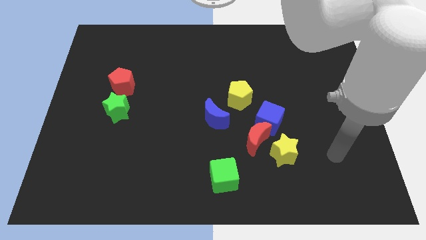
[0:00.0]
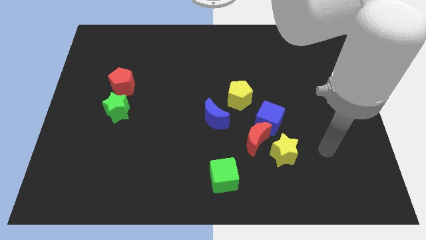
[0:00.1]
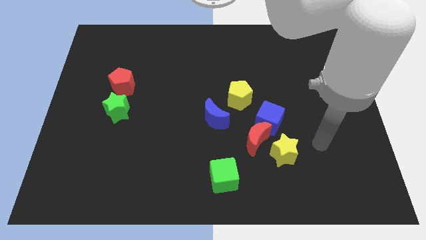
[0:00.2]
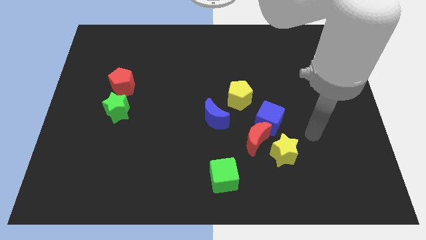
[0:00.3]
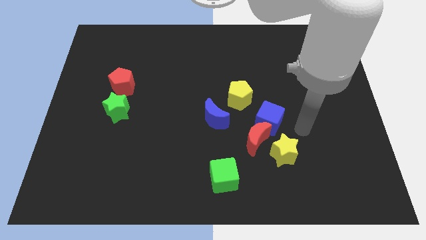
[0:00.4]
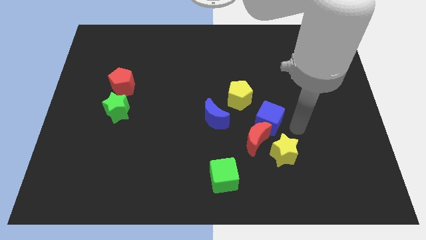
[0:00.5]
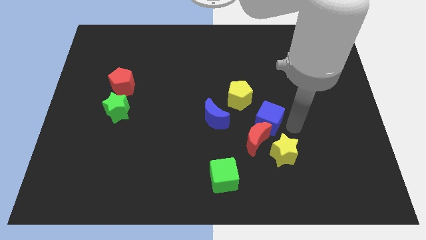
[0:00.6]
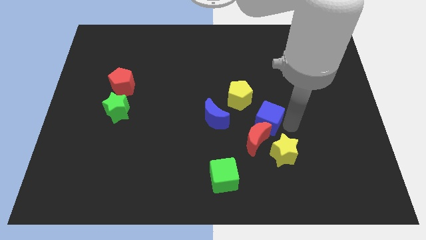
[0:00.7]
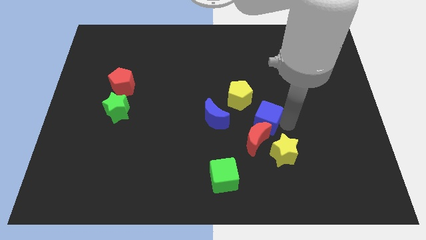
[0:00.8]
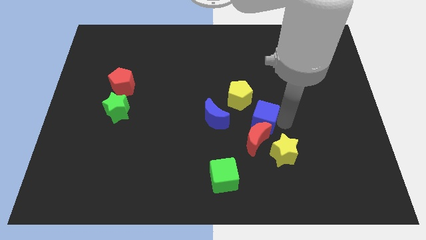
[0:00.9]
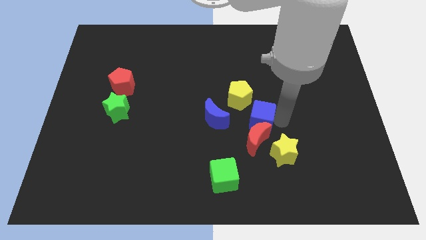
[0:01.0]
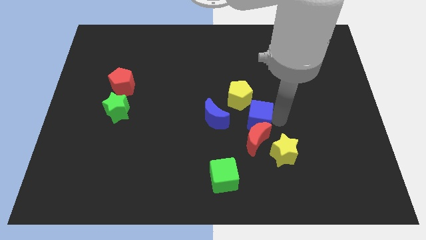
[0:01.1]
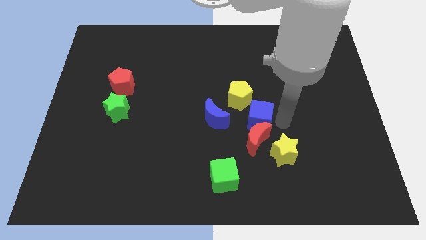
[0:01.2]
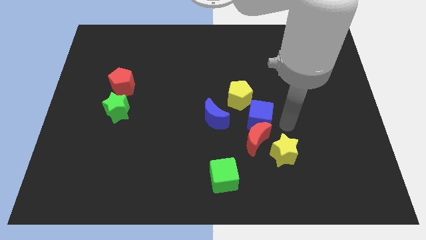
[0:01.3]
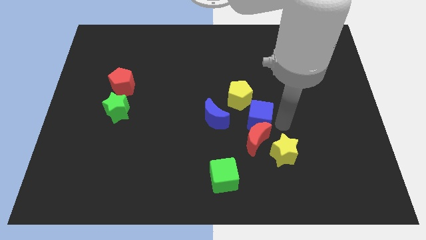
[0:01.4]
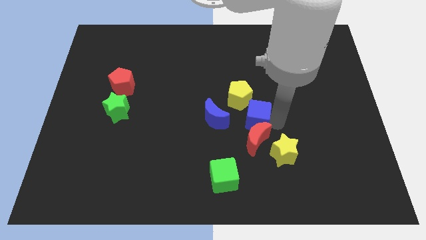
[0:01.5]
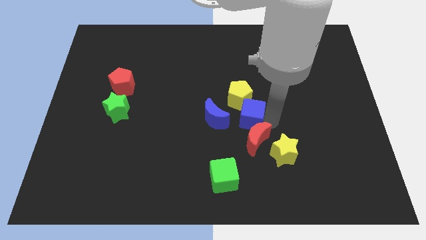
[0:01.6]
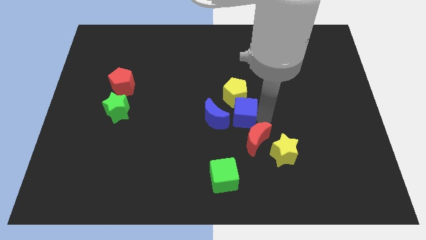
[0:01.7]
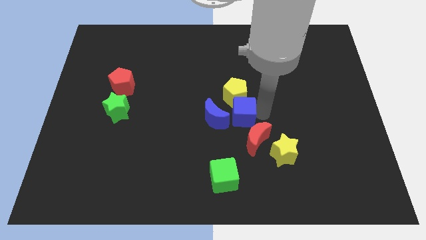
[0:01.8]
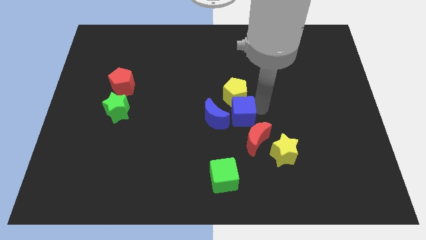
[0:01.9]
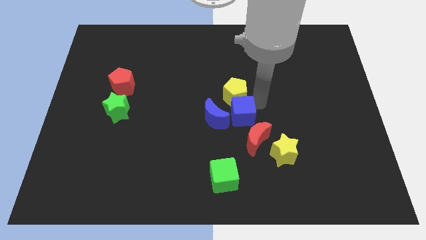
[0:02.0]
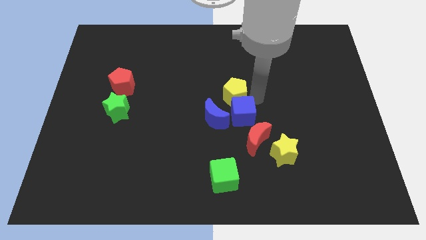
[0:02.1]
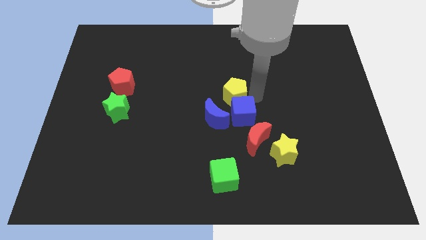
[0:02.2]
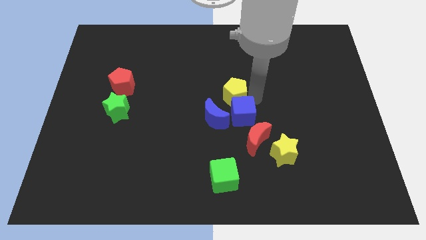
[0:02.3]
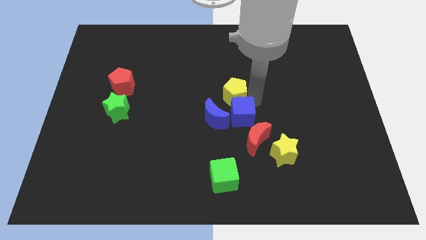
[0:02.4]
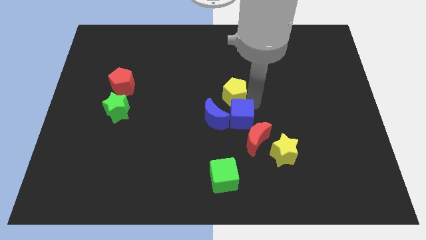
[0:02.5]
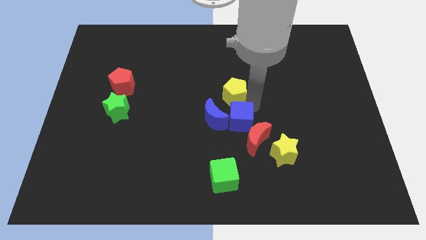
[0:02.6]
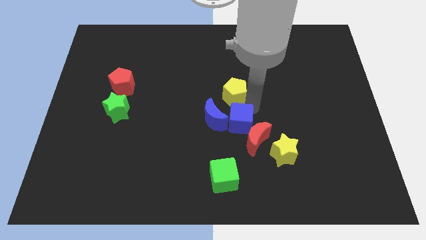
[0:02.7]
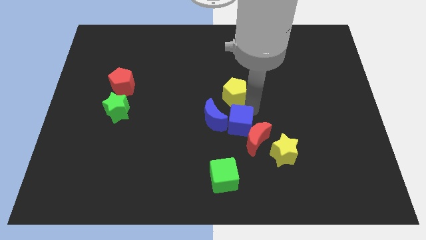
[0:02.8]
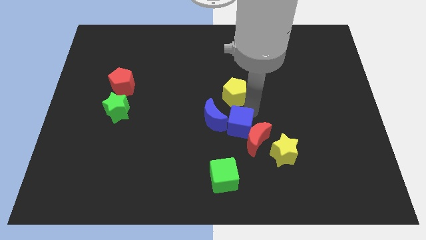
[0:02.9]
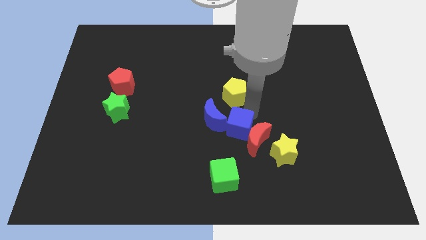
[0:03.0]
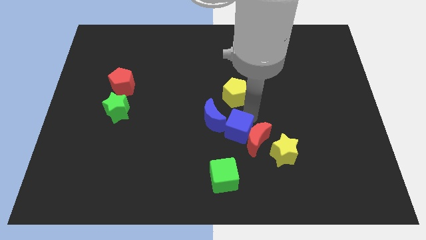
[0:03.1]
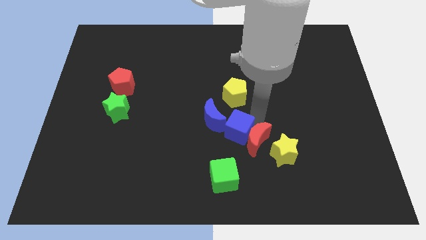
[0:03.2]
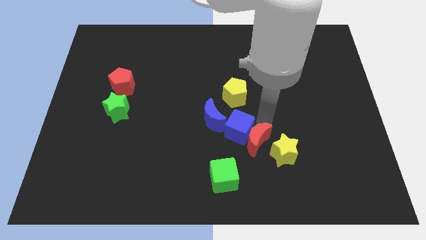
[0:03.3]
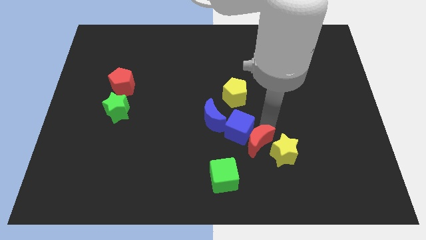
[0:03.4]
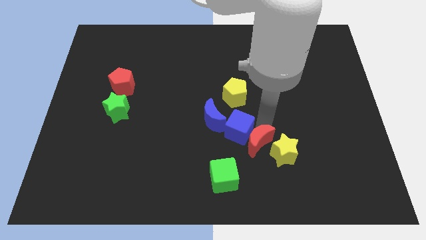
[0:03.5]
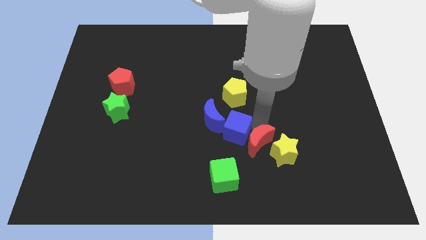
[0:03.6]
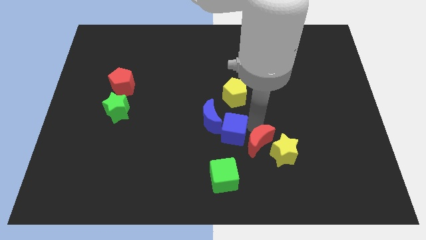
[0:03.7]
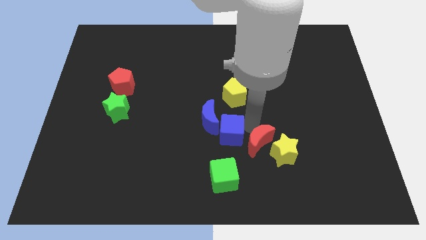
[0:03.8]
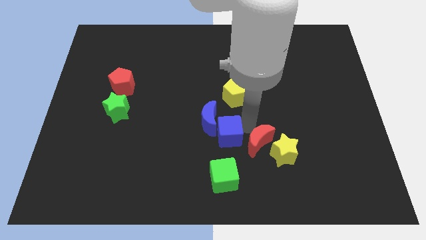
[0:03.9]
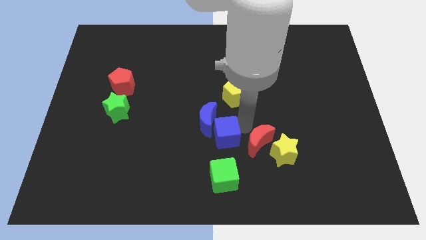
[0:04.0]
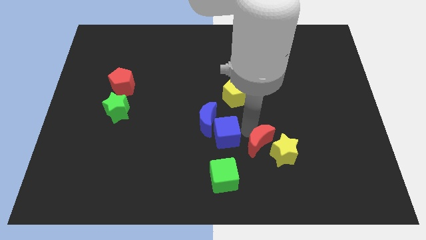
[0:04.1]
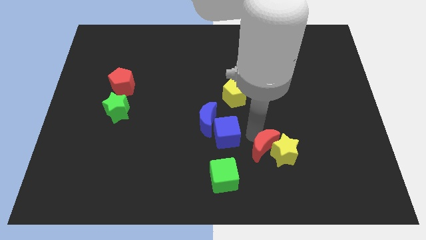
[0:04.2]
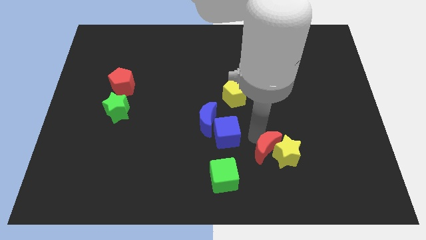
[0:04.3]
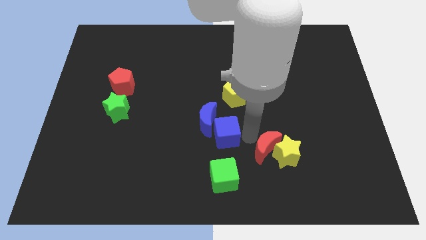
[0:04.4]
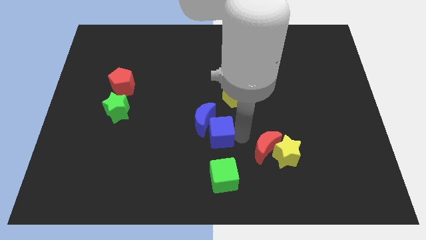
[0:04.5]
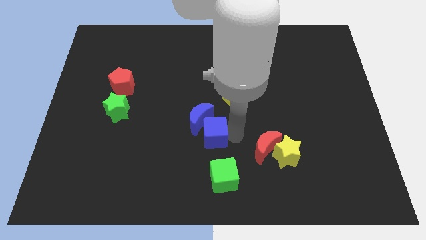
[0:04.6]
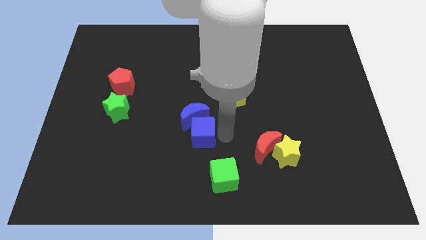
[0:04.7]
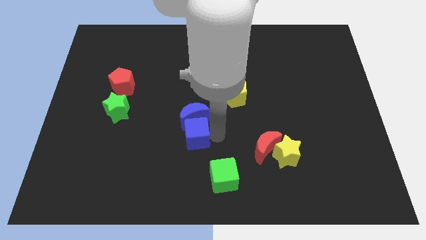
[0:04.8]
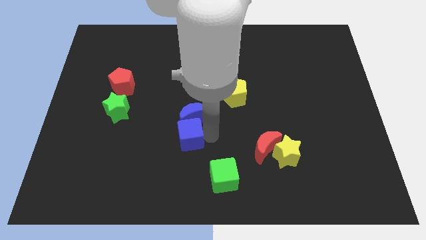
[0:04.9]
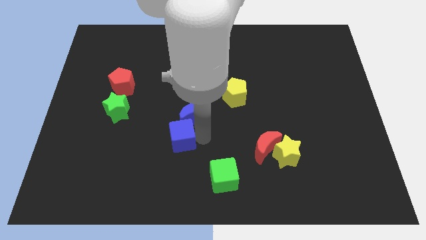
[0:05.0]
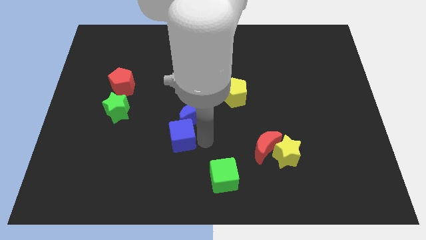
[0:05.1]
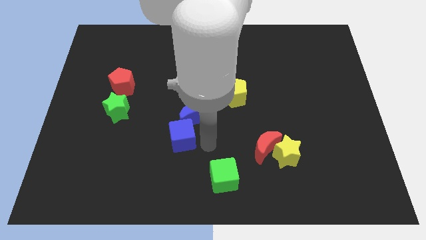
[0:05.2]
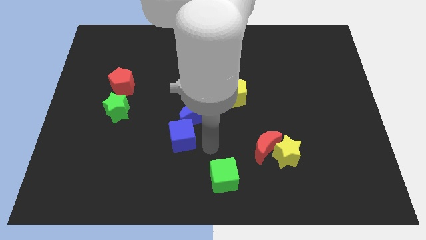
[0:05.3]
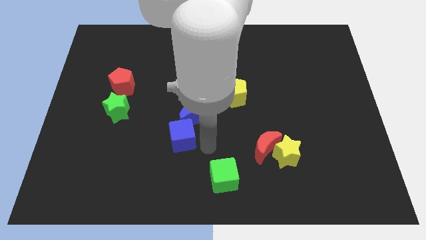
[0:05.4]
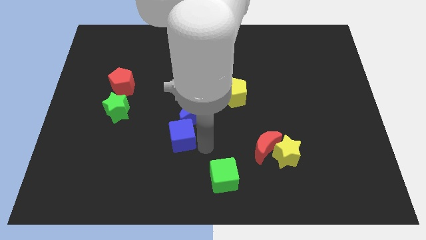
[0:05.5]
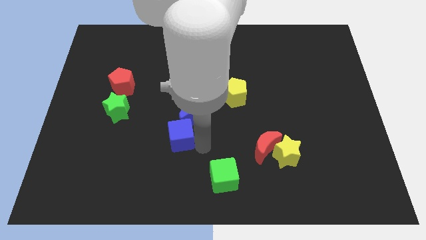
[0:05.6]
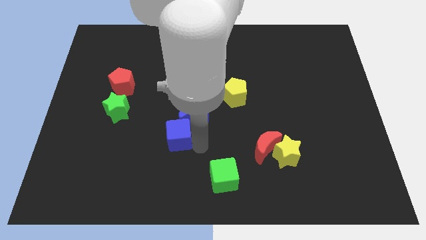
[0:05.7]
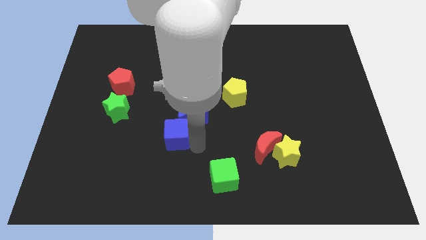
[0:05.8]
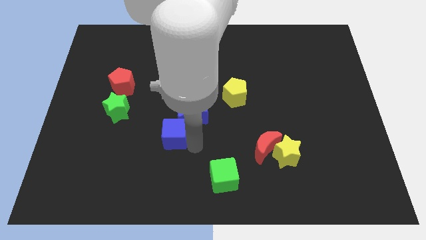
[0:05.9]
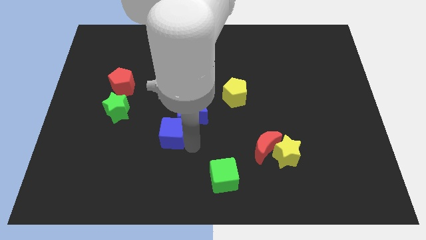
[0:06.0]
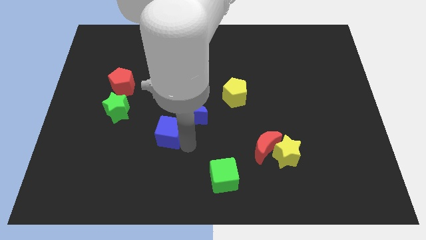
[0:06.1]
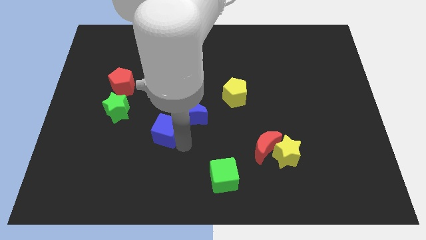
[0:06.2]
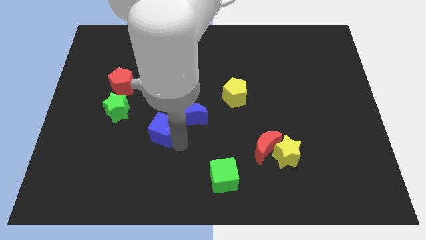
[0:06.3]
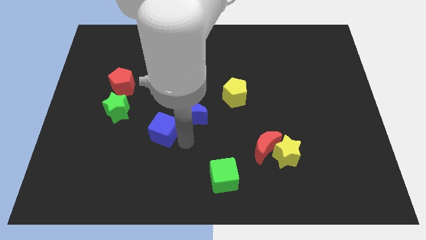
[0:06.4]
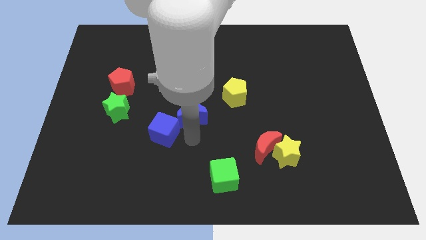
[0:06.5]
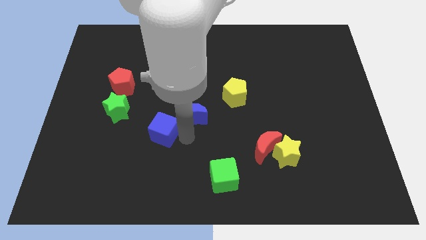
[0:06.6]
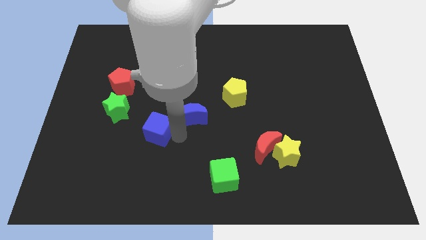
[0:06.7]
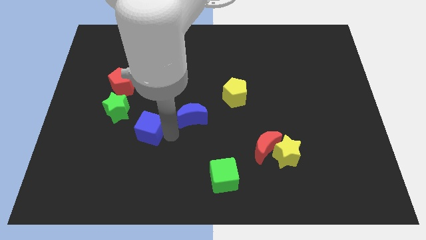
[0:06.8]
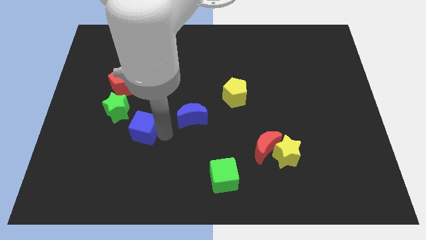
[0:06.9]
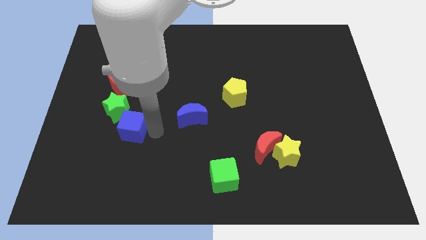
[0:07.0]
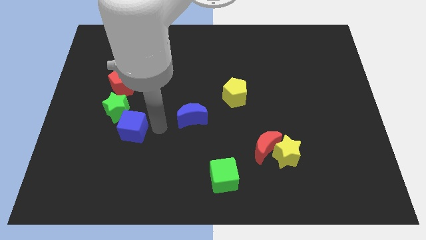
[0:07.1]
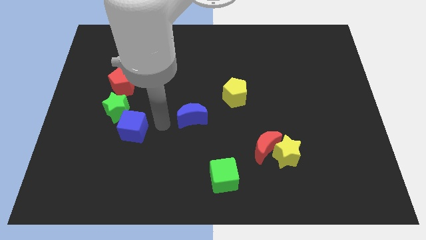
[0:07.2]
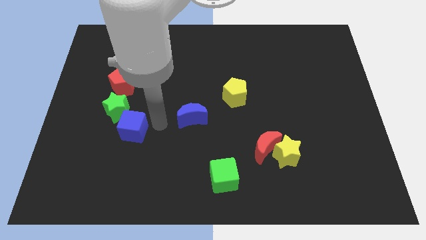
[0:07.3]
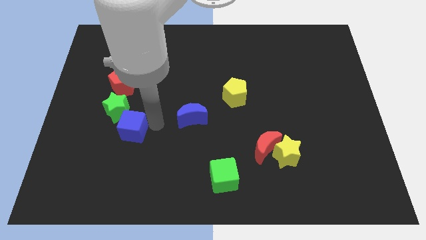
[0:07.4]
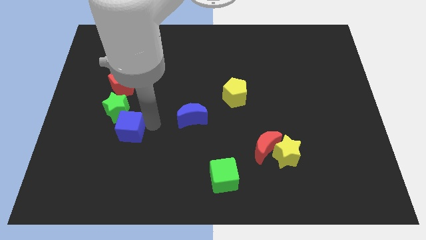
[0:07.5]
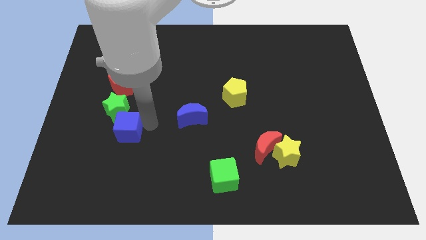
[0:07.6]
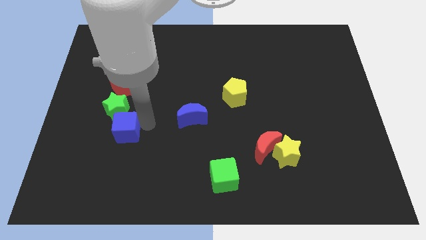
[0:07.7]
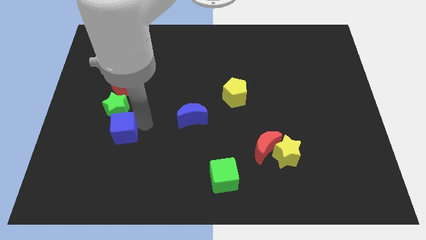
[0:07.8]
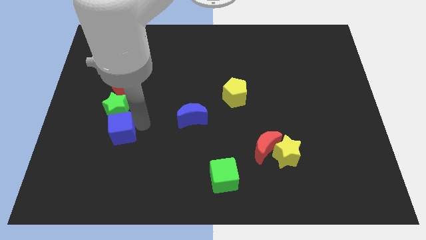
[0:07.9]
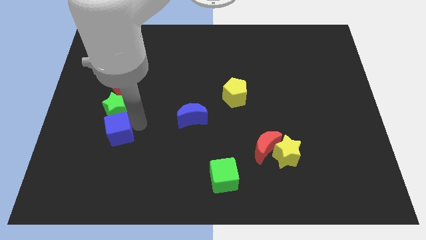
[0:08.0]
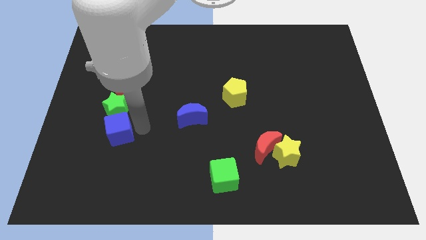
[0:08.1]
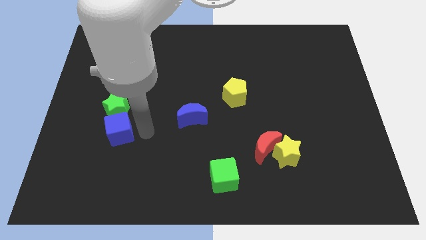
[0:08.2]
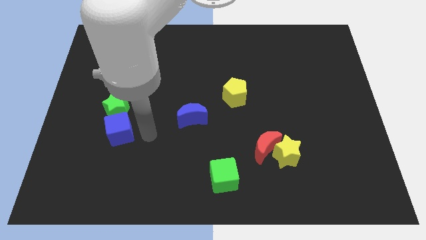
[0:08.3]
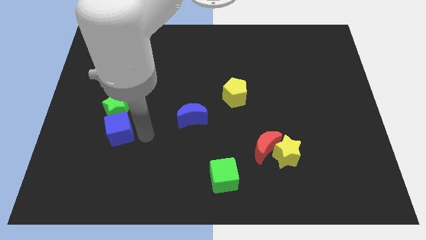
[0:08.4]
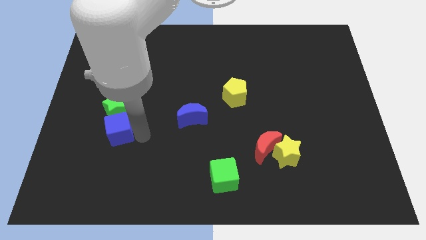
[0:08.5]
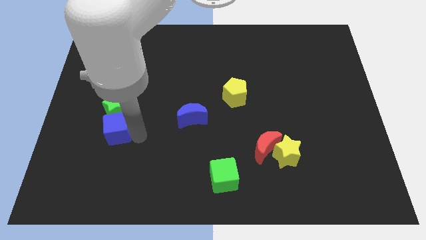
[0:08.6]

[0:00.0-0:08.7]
put the blue cube to the bottom left side of the green star
